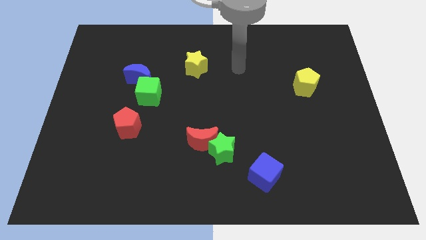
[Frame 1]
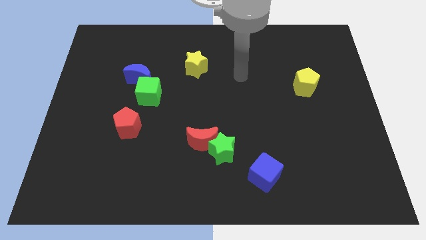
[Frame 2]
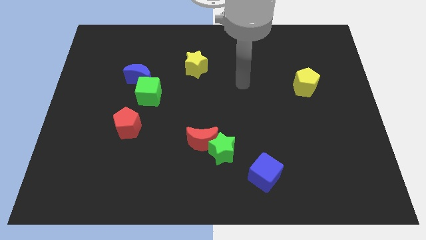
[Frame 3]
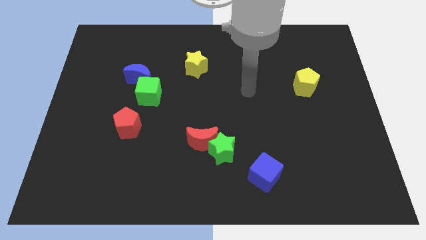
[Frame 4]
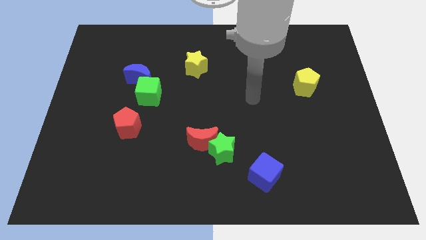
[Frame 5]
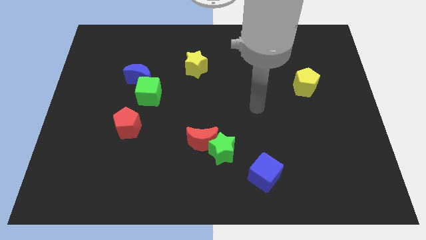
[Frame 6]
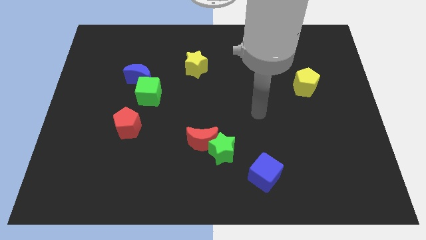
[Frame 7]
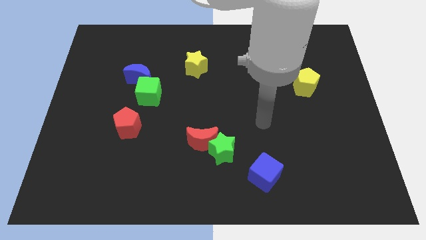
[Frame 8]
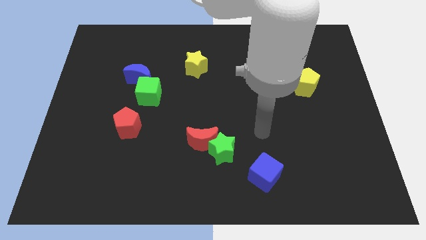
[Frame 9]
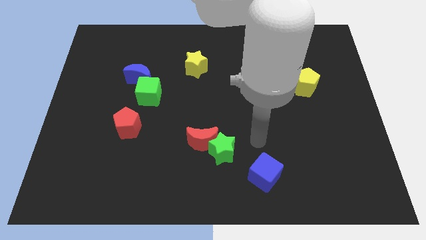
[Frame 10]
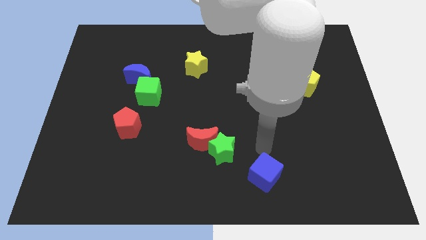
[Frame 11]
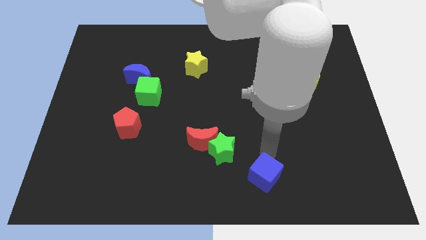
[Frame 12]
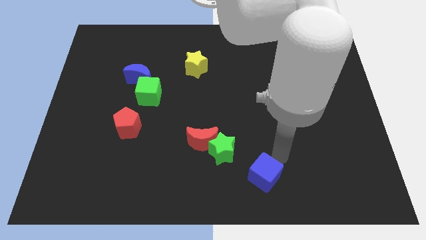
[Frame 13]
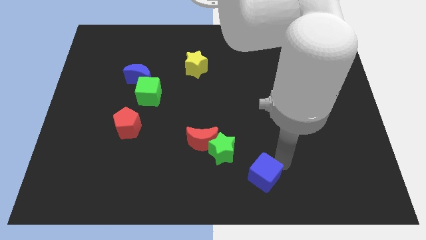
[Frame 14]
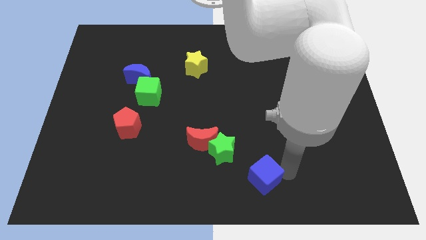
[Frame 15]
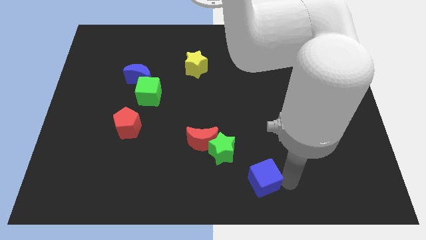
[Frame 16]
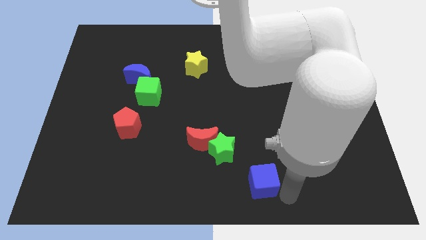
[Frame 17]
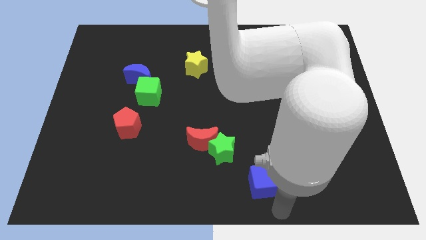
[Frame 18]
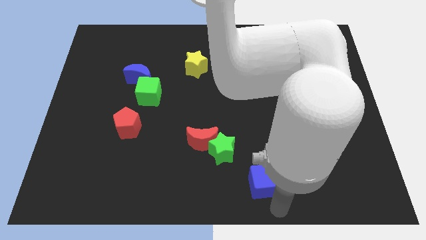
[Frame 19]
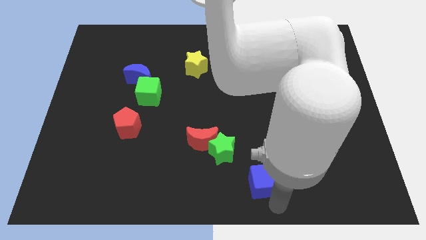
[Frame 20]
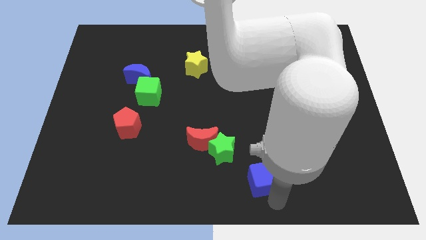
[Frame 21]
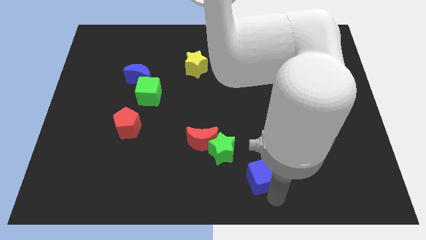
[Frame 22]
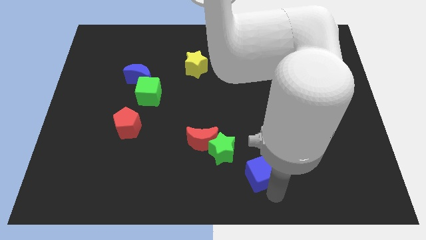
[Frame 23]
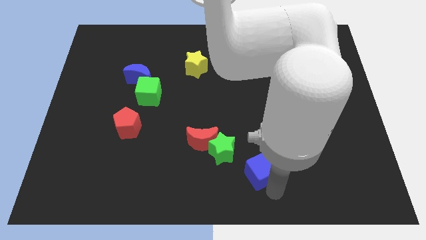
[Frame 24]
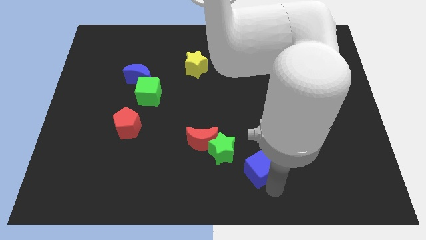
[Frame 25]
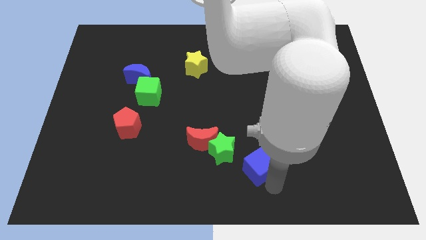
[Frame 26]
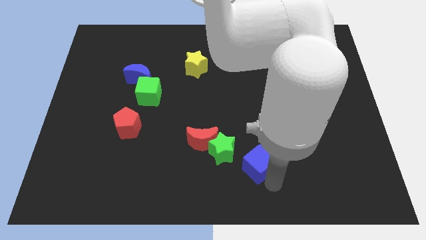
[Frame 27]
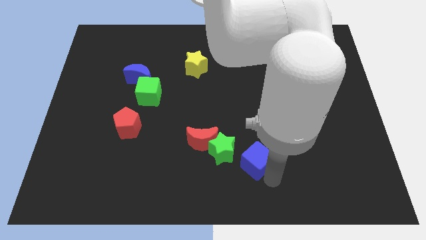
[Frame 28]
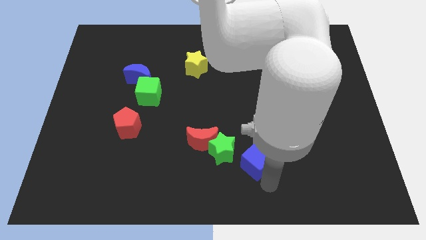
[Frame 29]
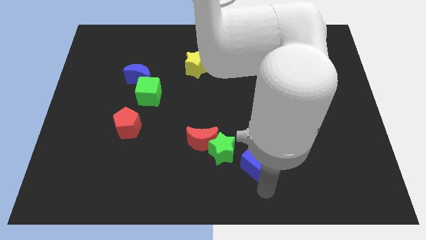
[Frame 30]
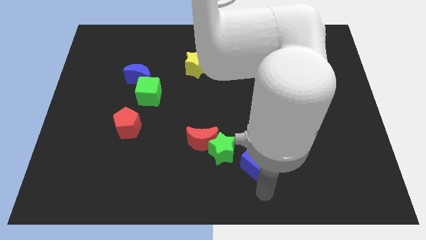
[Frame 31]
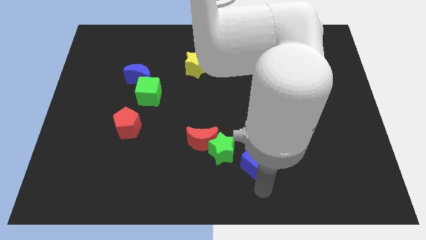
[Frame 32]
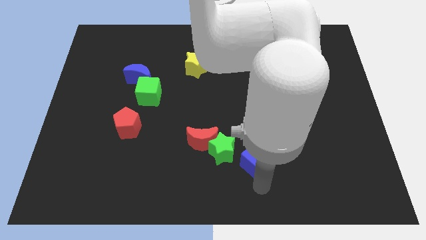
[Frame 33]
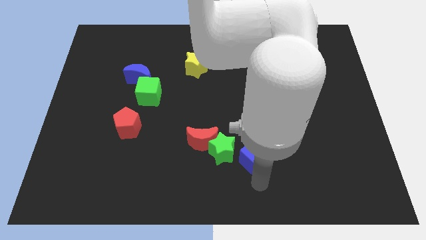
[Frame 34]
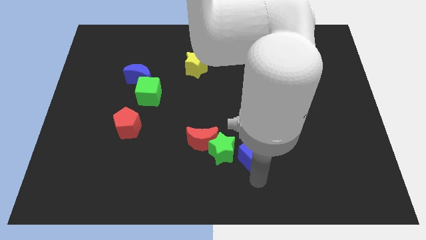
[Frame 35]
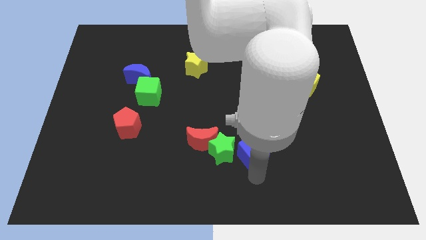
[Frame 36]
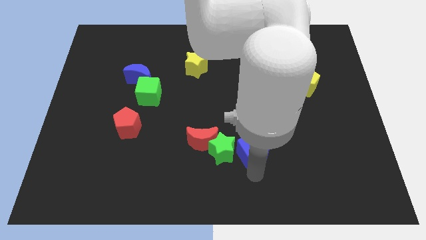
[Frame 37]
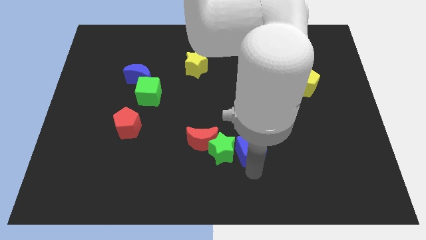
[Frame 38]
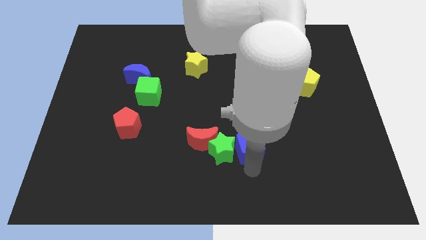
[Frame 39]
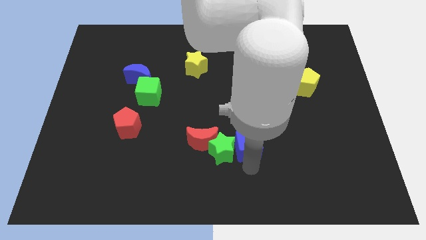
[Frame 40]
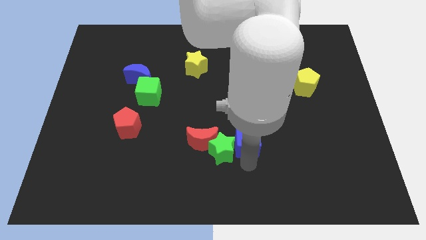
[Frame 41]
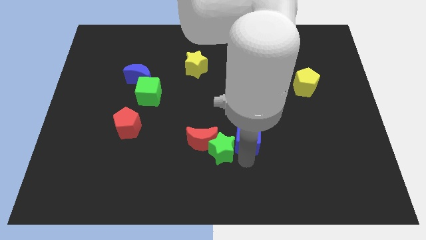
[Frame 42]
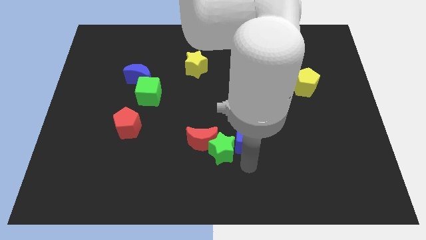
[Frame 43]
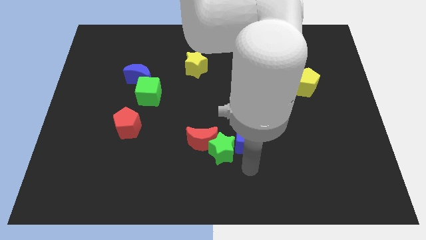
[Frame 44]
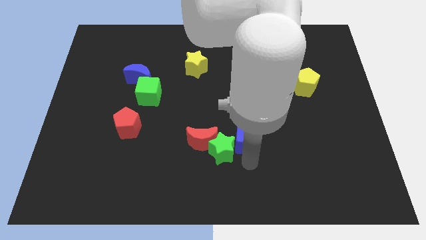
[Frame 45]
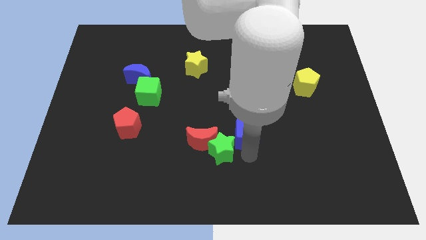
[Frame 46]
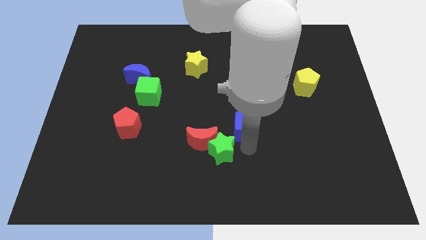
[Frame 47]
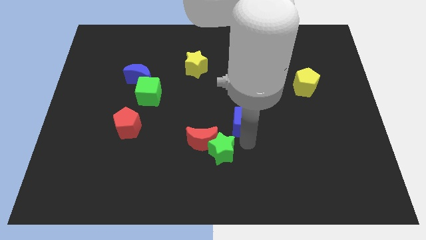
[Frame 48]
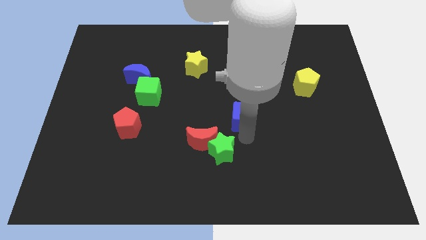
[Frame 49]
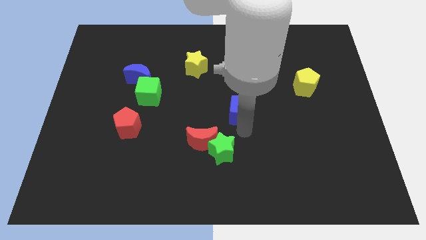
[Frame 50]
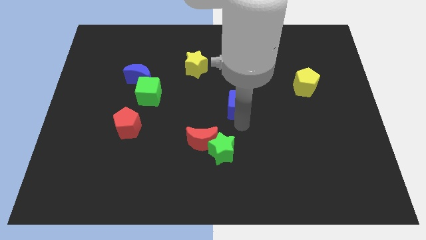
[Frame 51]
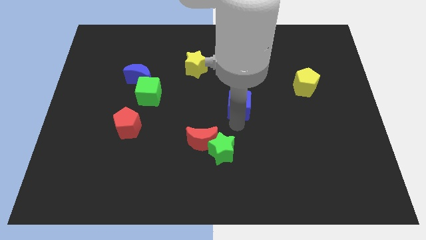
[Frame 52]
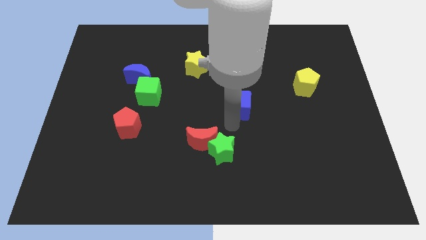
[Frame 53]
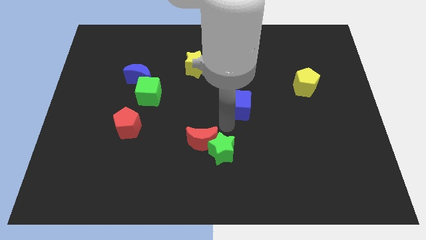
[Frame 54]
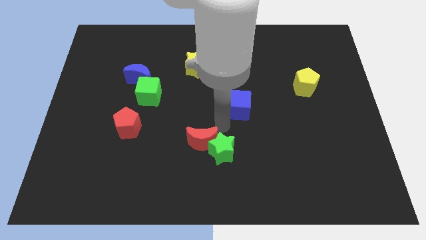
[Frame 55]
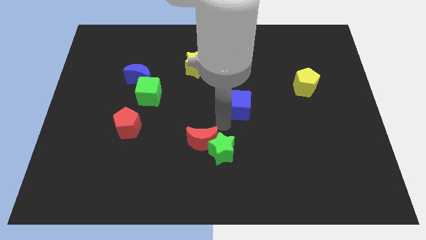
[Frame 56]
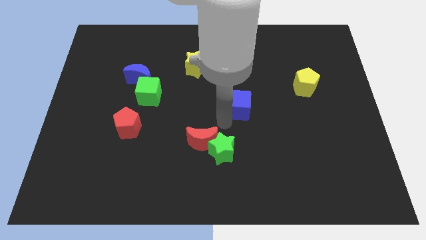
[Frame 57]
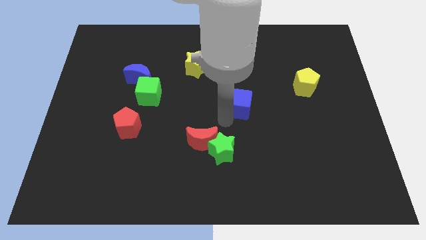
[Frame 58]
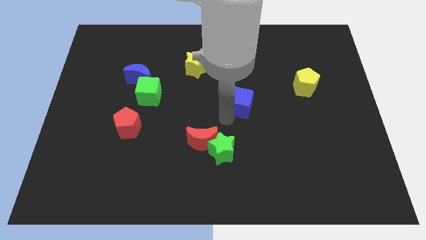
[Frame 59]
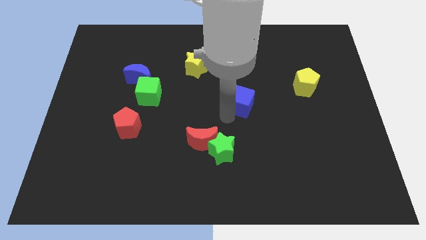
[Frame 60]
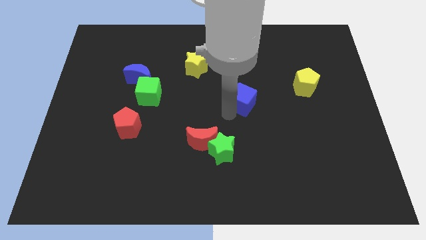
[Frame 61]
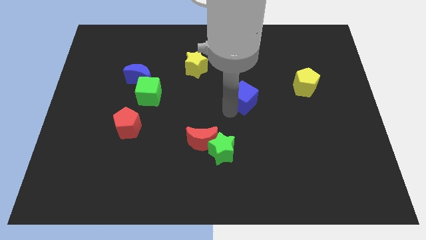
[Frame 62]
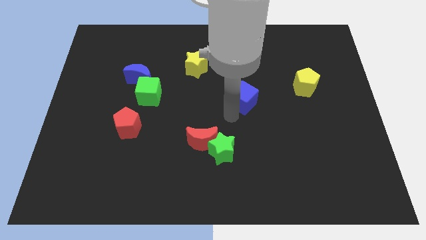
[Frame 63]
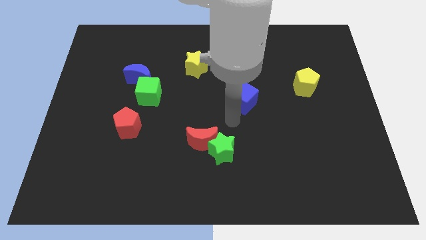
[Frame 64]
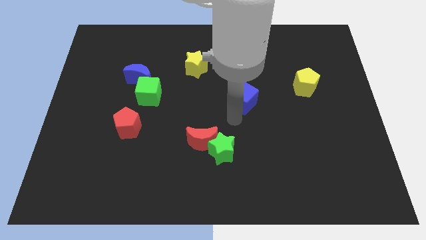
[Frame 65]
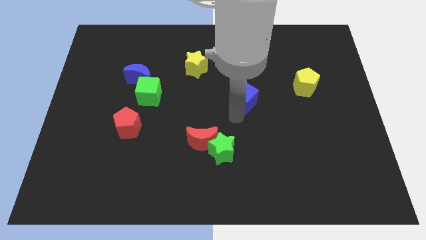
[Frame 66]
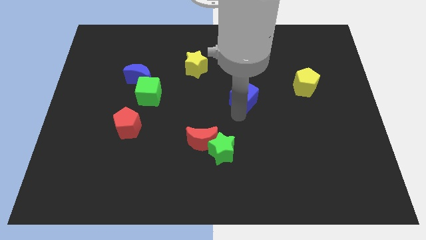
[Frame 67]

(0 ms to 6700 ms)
slide the blue cube up

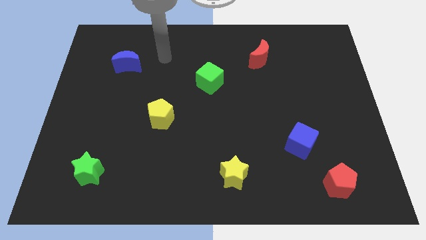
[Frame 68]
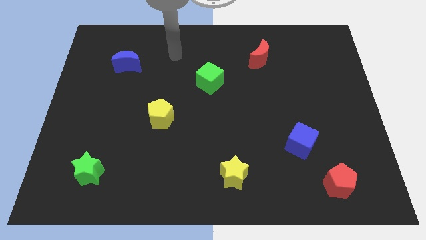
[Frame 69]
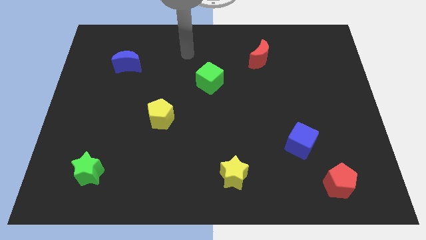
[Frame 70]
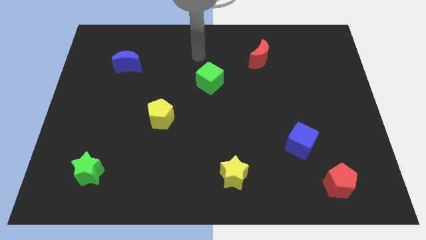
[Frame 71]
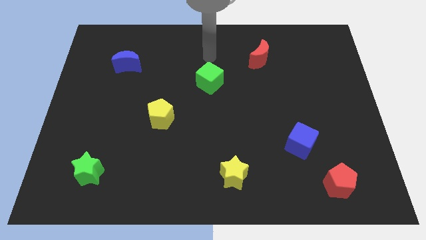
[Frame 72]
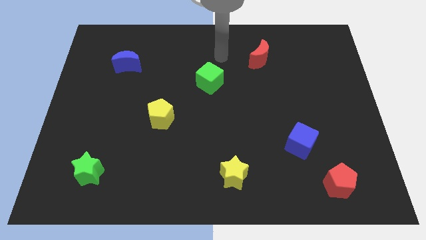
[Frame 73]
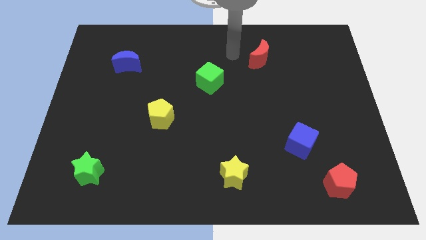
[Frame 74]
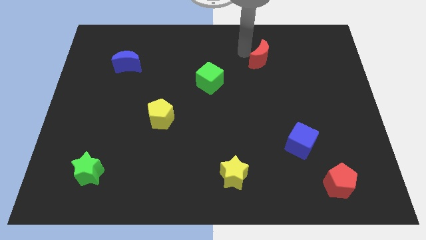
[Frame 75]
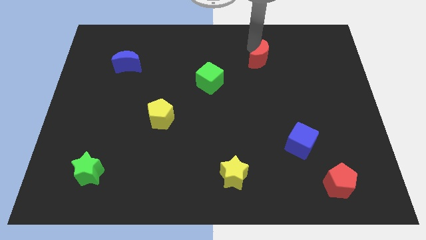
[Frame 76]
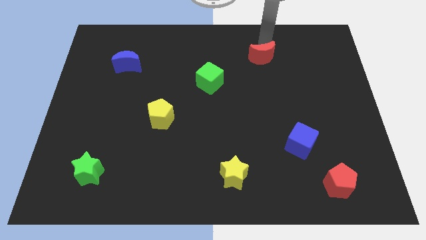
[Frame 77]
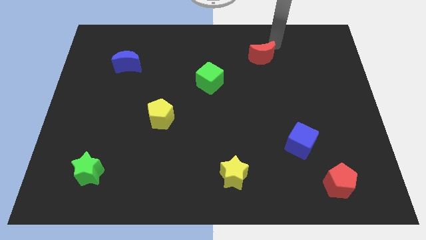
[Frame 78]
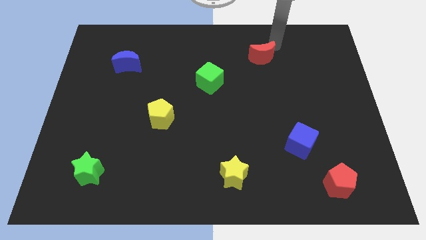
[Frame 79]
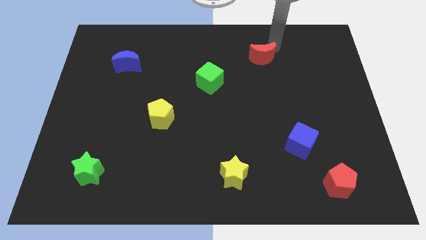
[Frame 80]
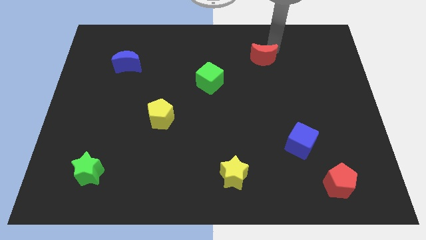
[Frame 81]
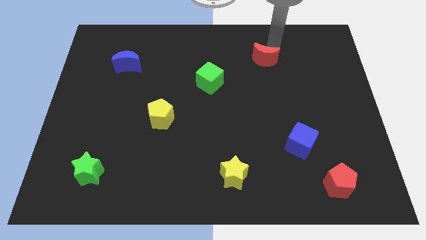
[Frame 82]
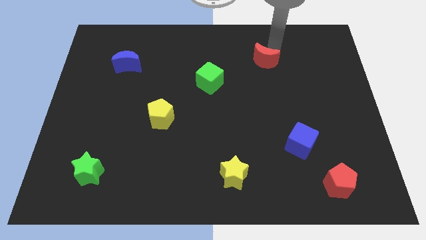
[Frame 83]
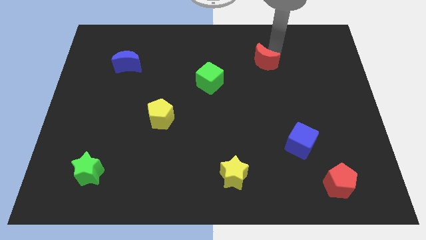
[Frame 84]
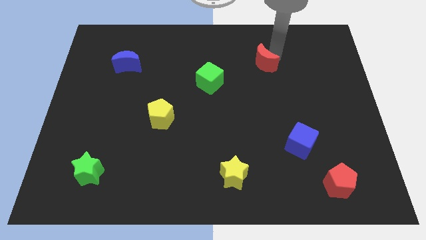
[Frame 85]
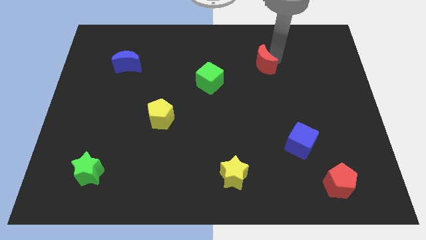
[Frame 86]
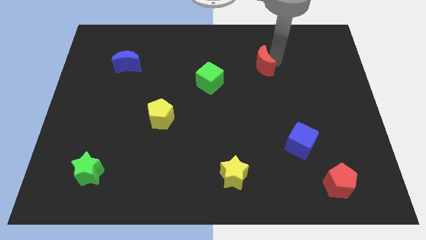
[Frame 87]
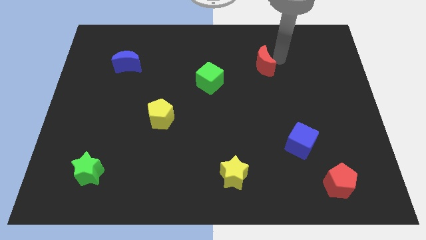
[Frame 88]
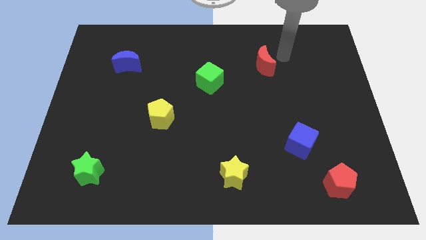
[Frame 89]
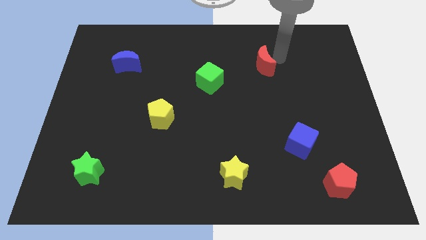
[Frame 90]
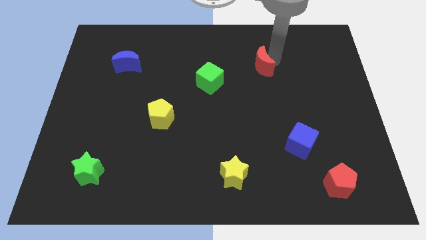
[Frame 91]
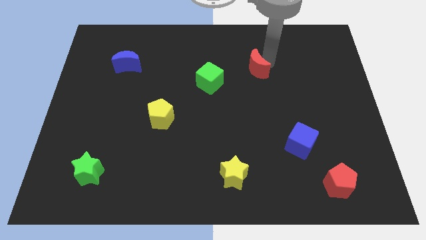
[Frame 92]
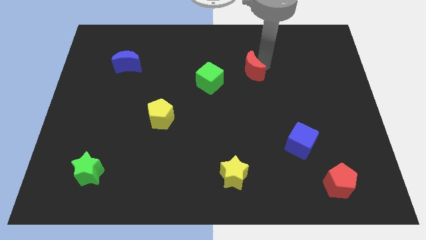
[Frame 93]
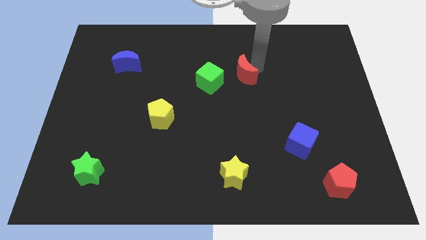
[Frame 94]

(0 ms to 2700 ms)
slightly slide the red moon down and then left
